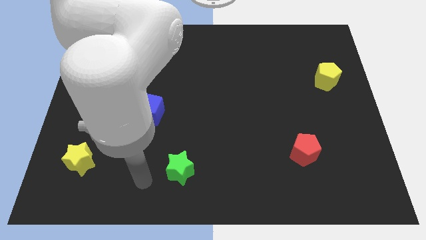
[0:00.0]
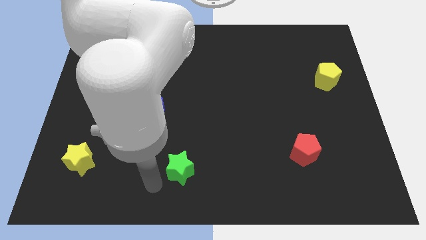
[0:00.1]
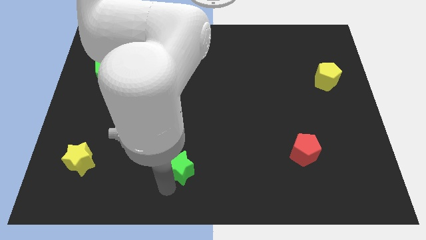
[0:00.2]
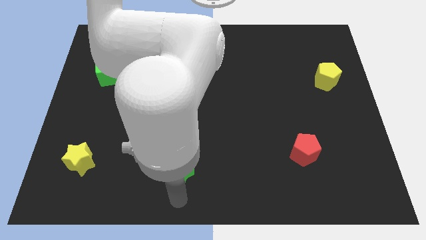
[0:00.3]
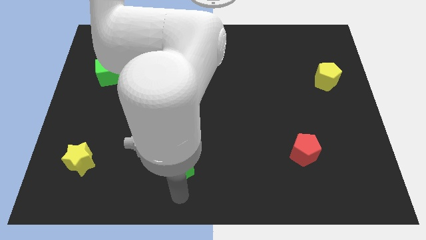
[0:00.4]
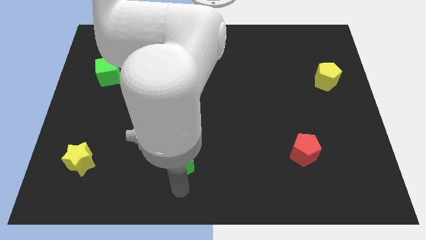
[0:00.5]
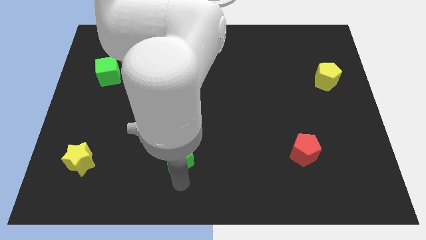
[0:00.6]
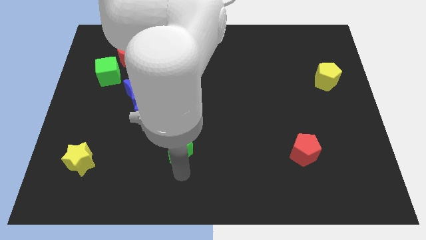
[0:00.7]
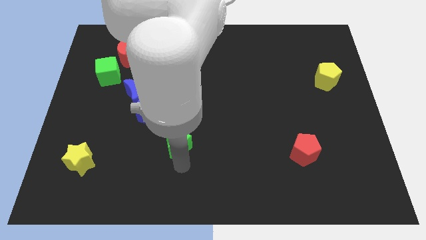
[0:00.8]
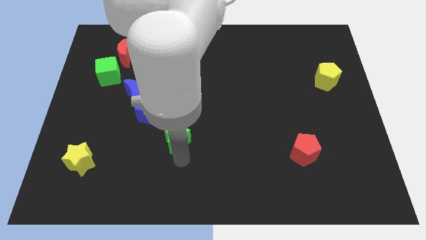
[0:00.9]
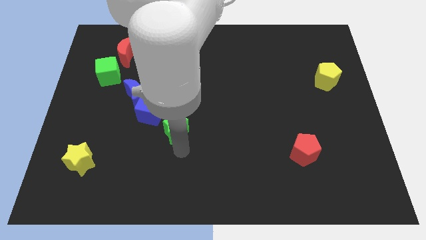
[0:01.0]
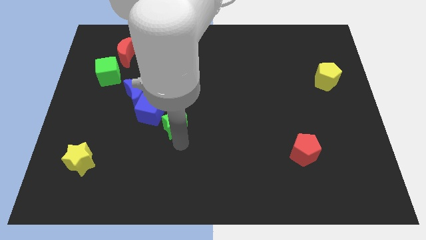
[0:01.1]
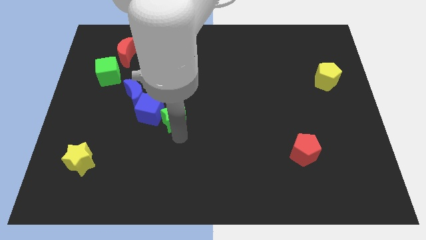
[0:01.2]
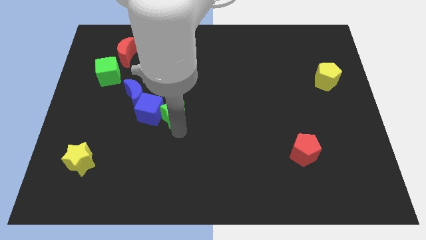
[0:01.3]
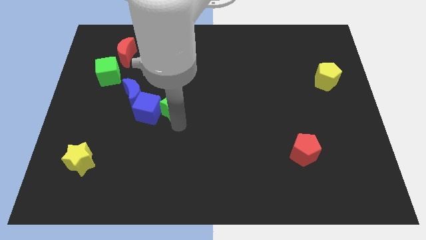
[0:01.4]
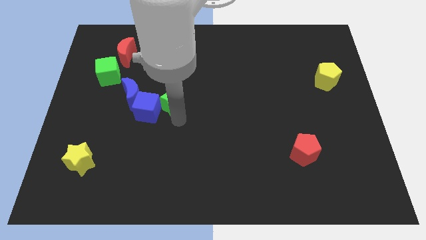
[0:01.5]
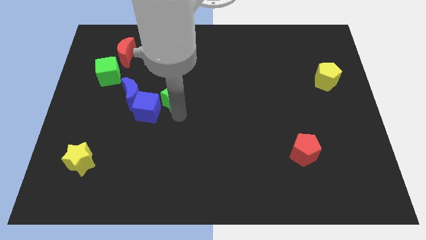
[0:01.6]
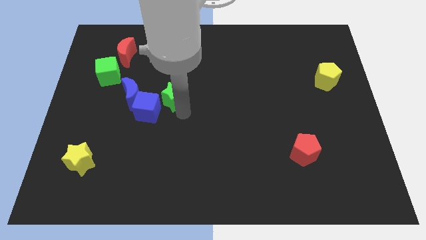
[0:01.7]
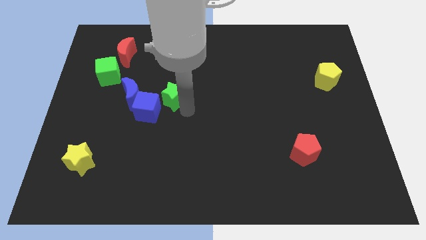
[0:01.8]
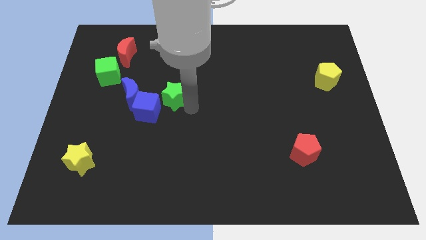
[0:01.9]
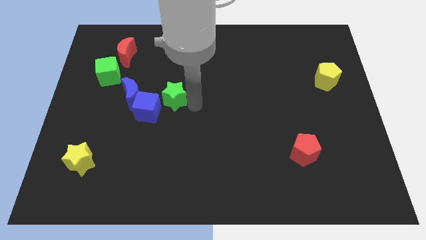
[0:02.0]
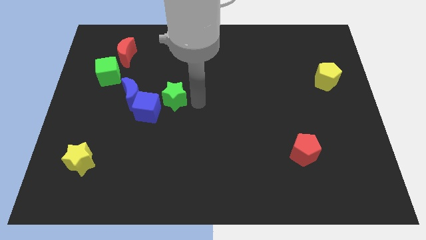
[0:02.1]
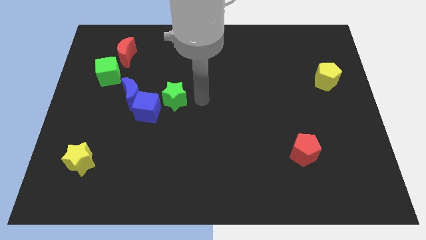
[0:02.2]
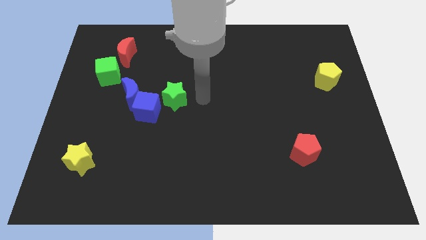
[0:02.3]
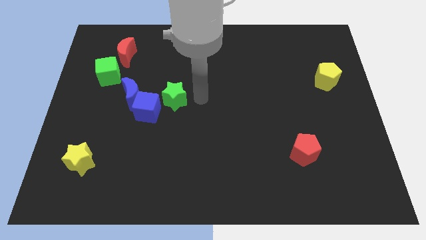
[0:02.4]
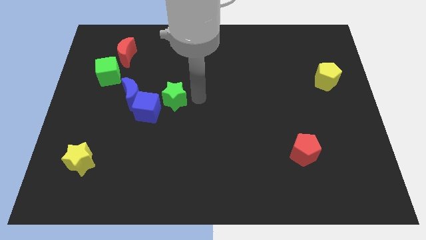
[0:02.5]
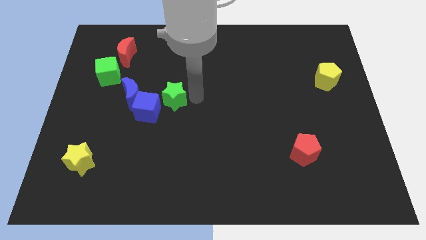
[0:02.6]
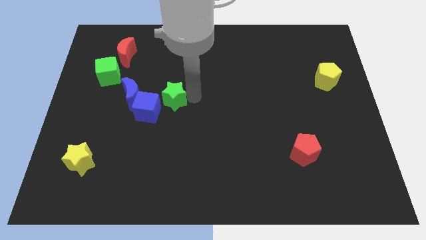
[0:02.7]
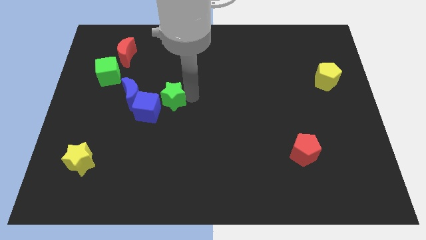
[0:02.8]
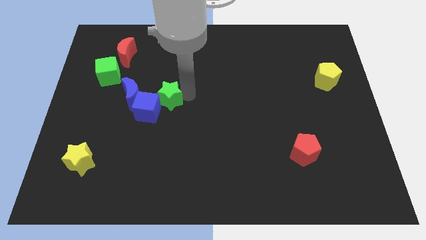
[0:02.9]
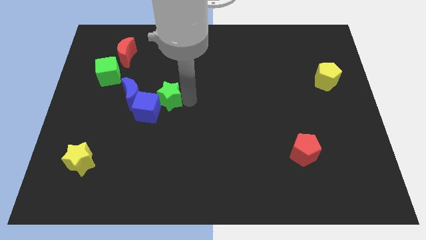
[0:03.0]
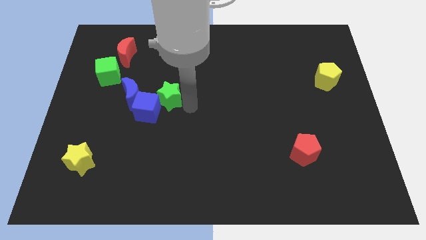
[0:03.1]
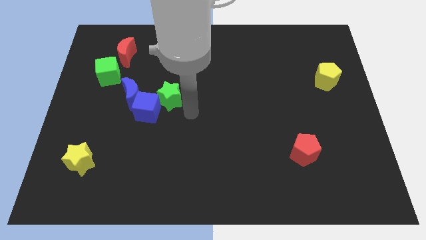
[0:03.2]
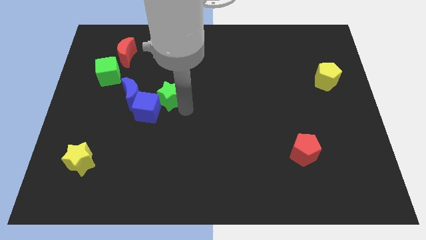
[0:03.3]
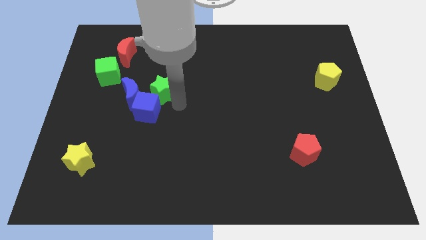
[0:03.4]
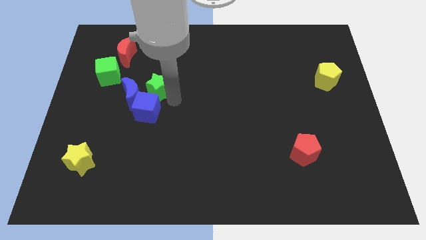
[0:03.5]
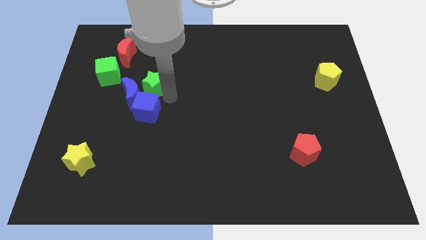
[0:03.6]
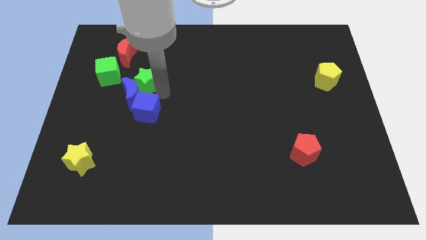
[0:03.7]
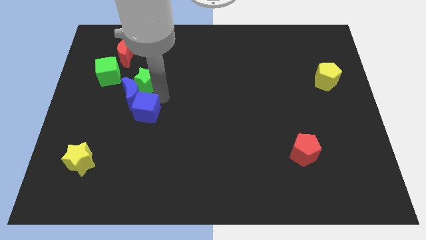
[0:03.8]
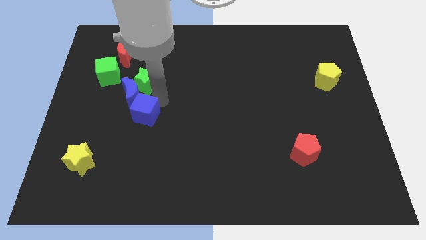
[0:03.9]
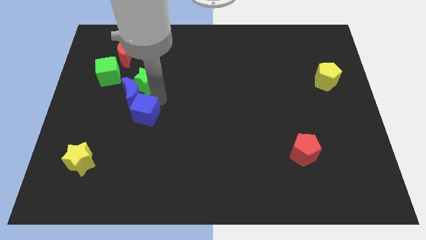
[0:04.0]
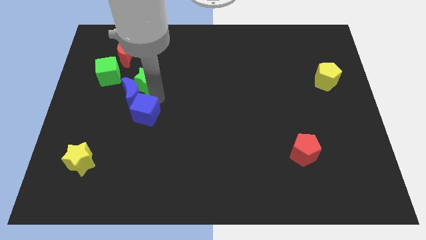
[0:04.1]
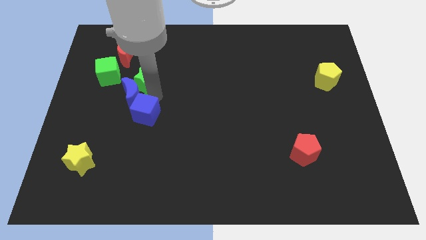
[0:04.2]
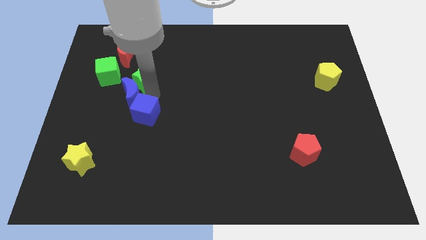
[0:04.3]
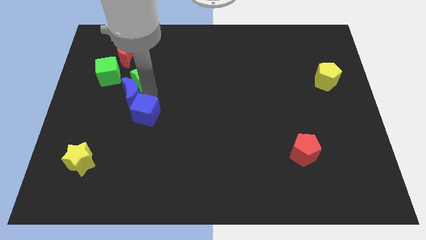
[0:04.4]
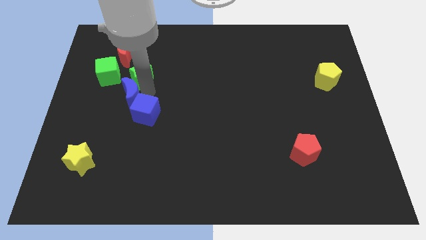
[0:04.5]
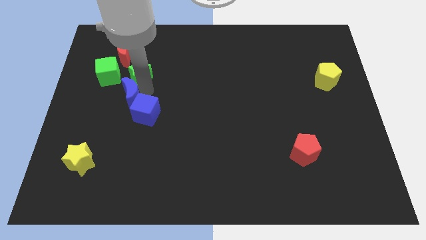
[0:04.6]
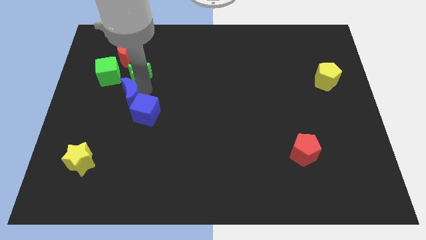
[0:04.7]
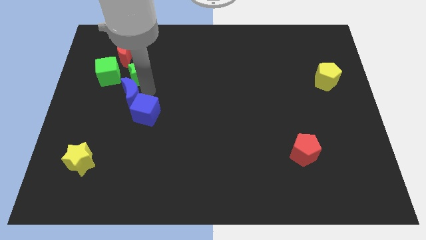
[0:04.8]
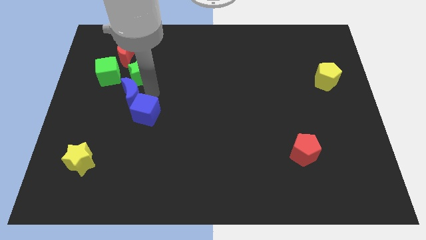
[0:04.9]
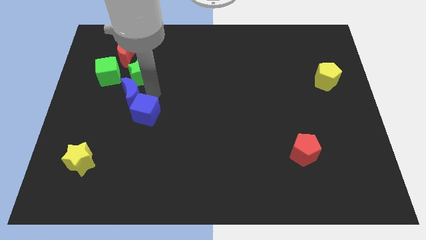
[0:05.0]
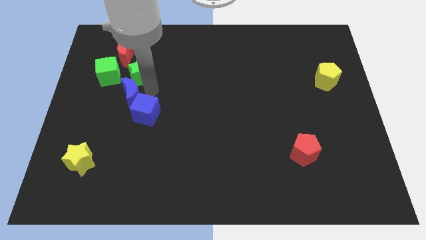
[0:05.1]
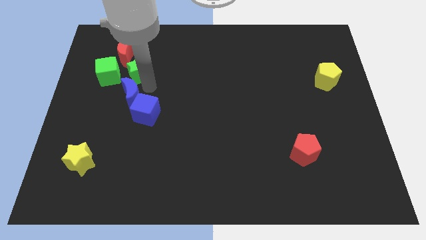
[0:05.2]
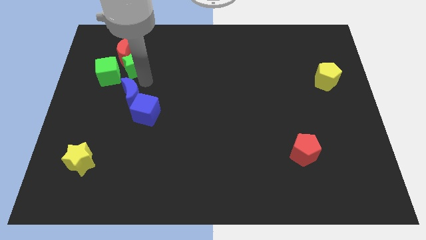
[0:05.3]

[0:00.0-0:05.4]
push the green star close to the red moon

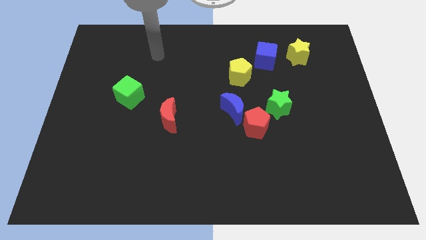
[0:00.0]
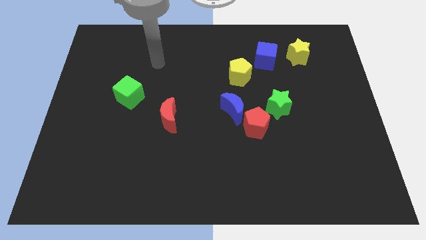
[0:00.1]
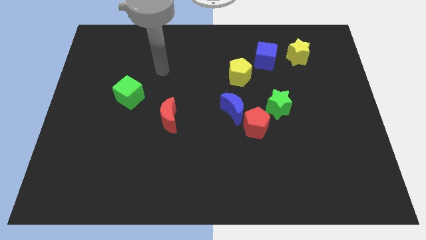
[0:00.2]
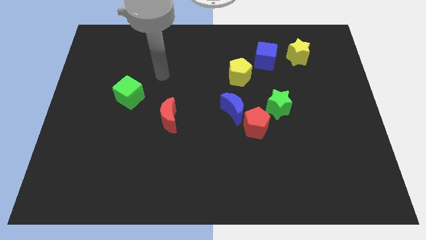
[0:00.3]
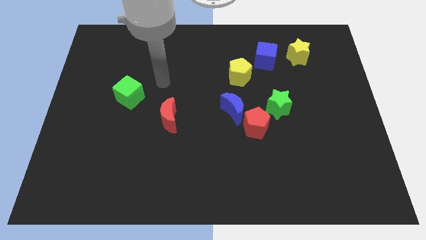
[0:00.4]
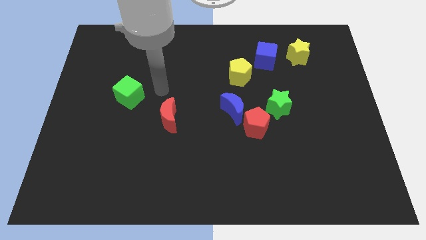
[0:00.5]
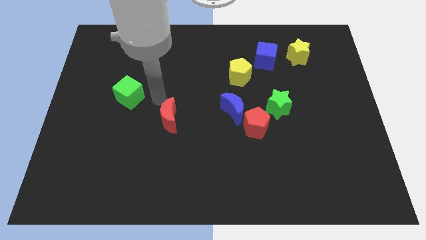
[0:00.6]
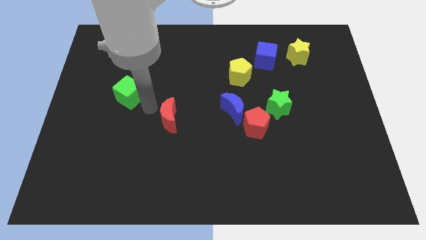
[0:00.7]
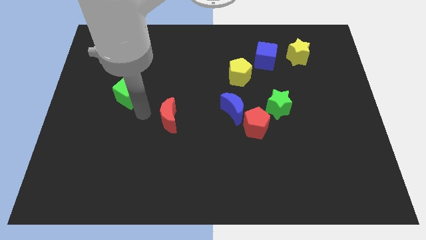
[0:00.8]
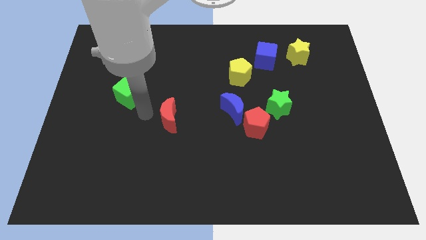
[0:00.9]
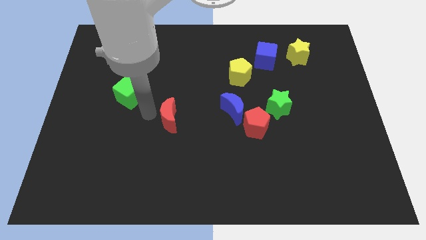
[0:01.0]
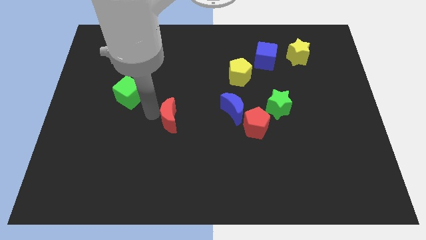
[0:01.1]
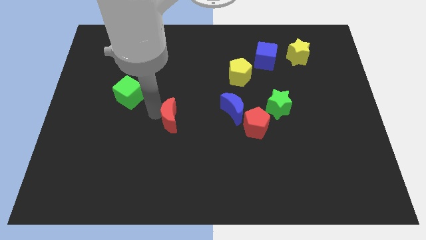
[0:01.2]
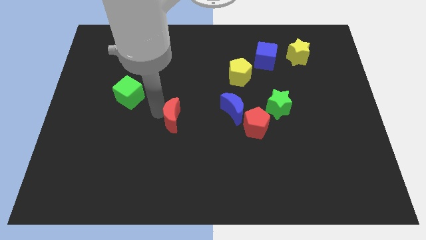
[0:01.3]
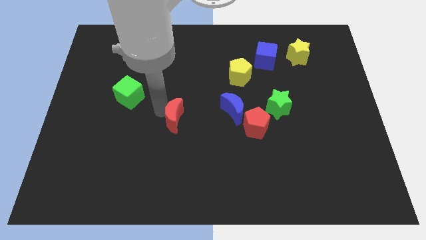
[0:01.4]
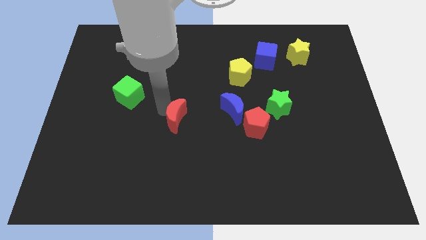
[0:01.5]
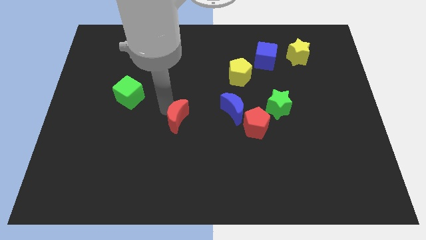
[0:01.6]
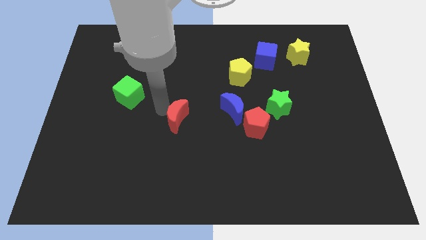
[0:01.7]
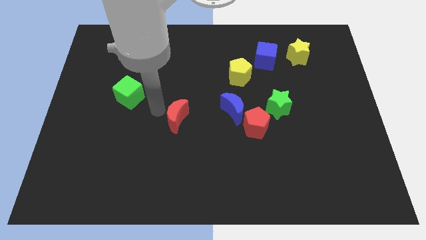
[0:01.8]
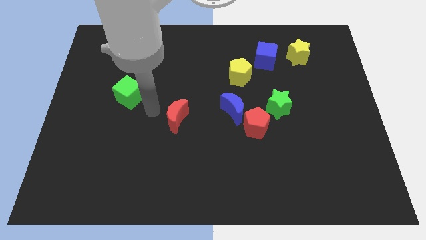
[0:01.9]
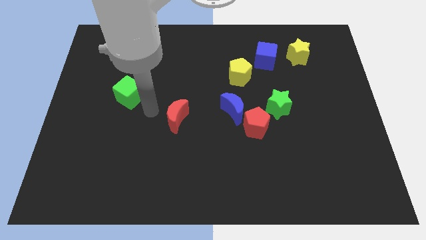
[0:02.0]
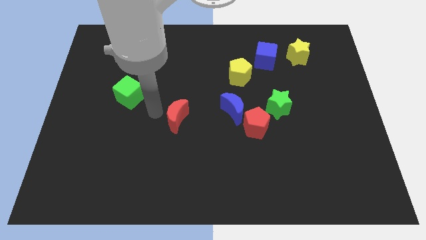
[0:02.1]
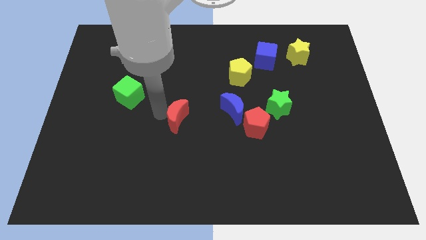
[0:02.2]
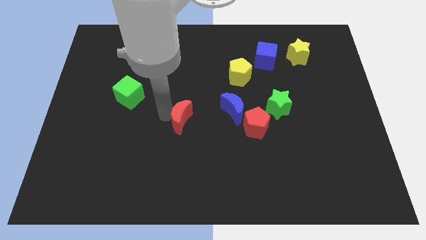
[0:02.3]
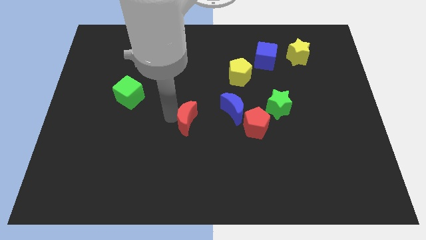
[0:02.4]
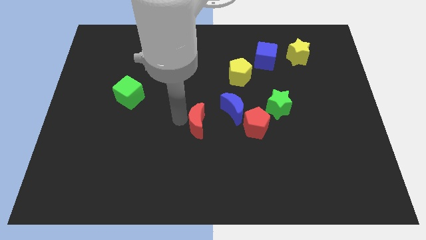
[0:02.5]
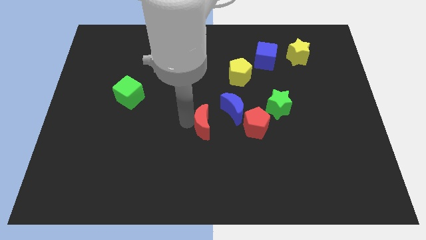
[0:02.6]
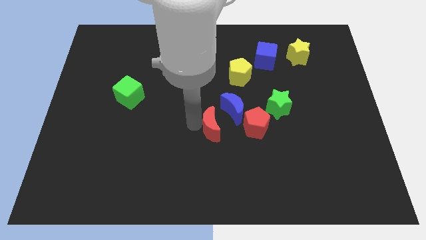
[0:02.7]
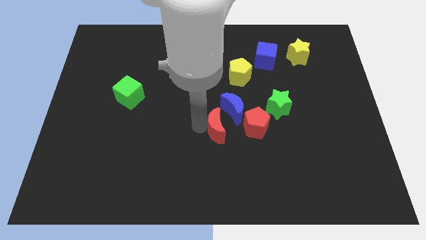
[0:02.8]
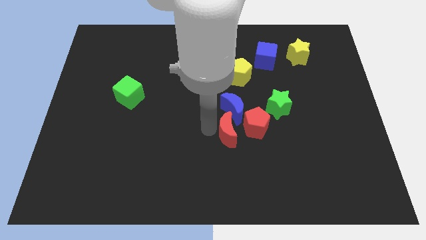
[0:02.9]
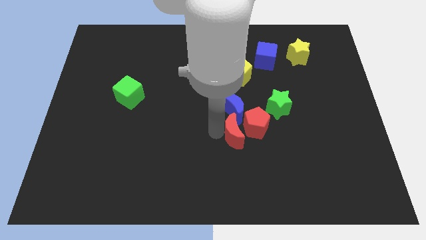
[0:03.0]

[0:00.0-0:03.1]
push the red moon to the red pentagon
